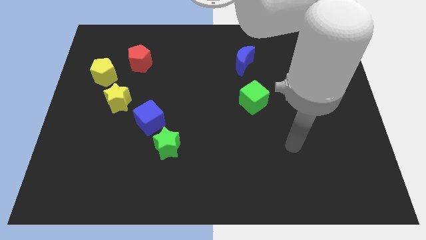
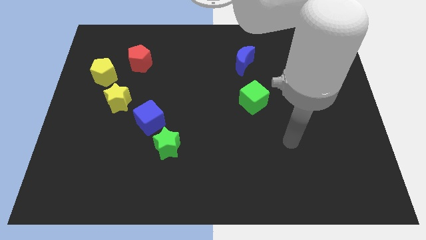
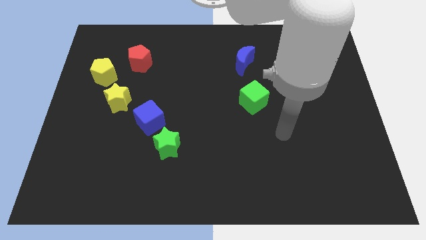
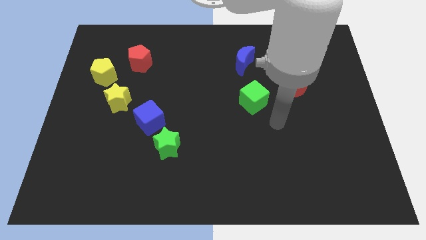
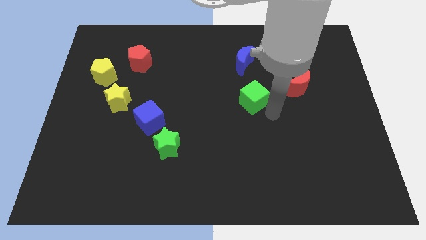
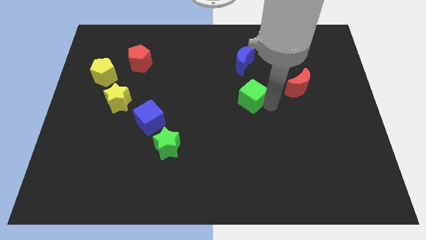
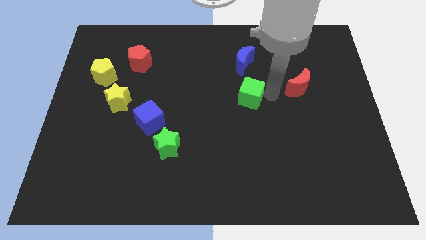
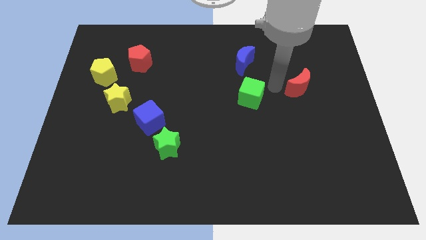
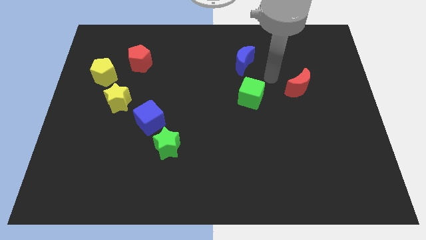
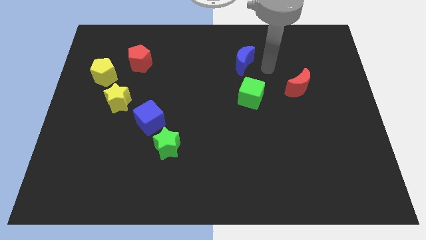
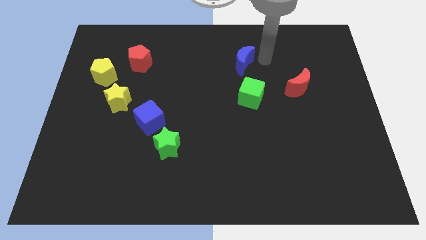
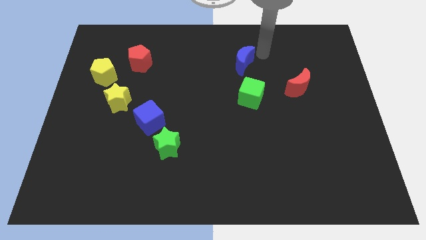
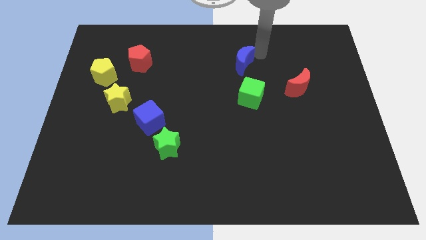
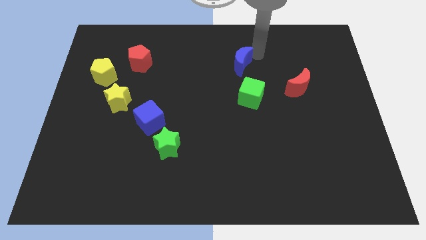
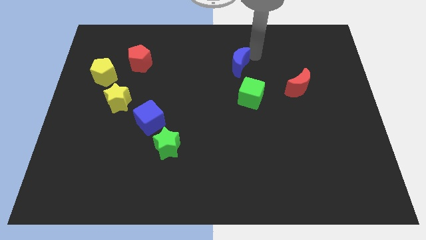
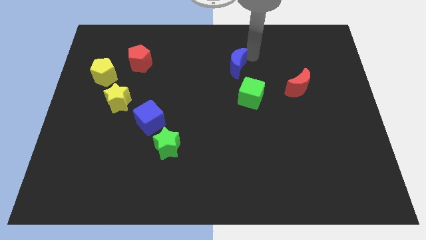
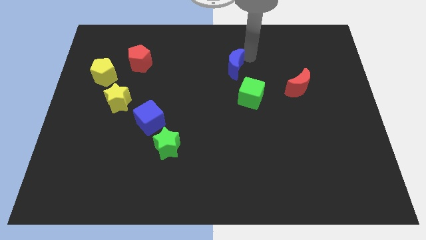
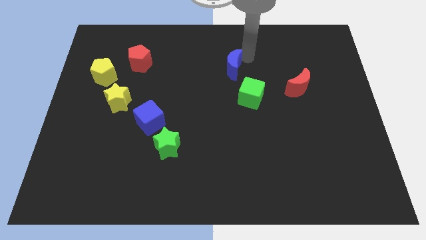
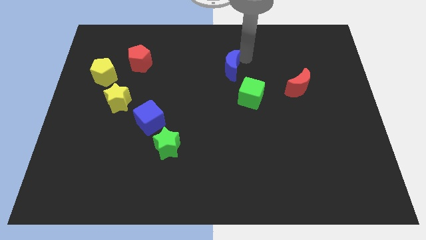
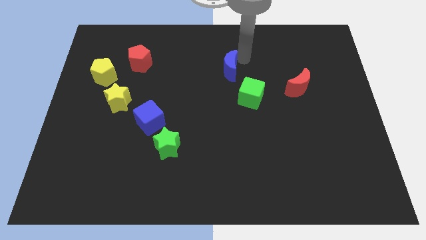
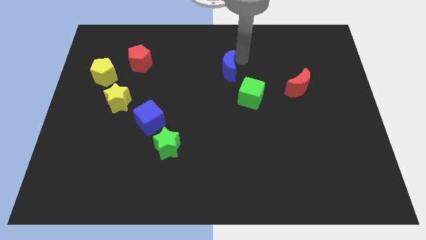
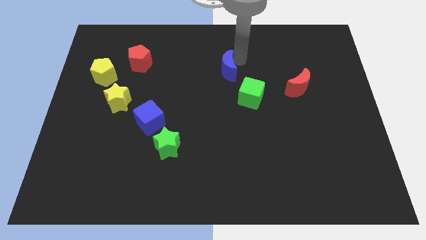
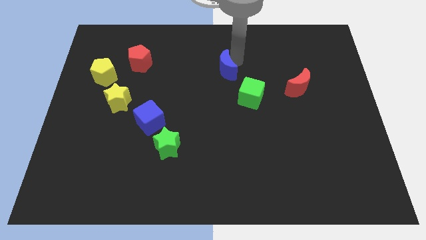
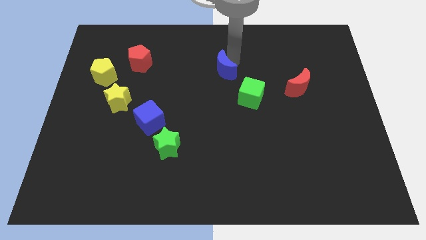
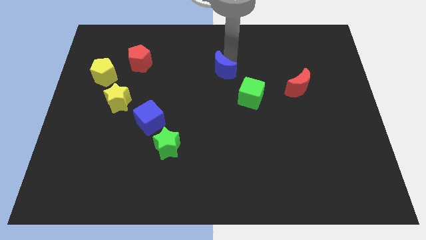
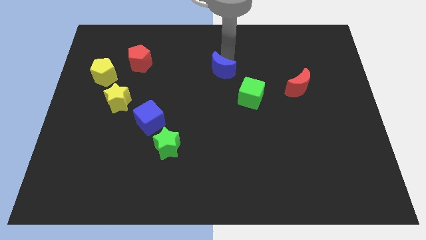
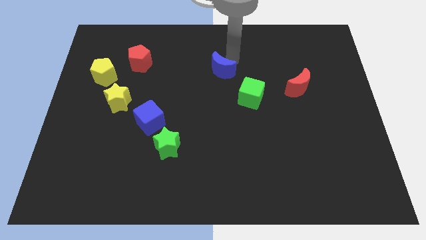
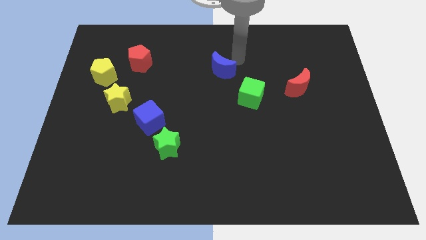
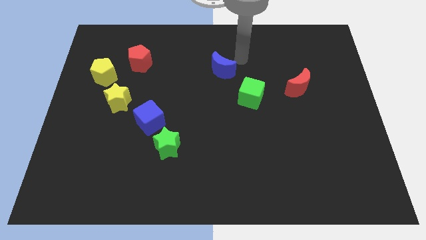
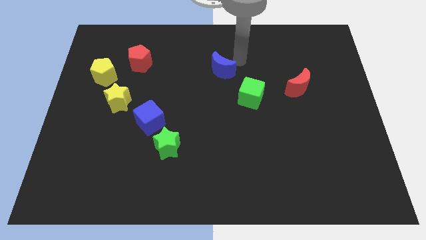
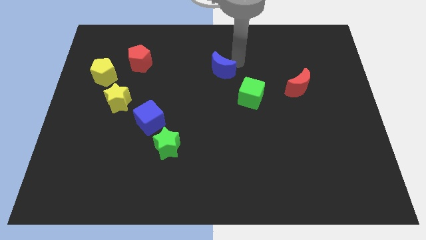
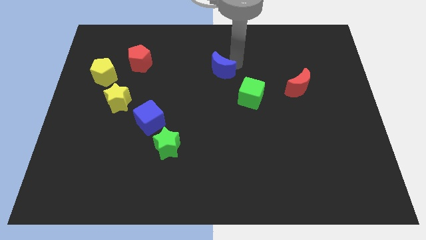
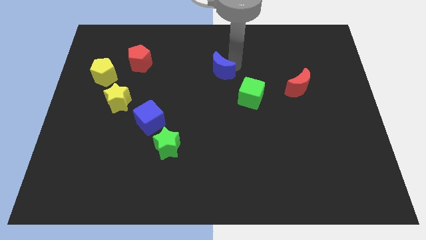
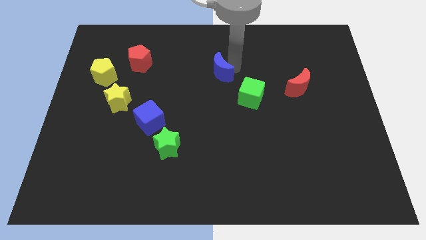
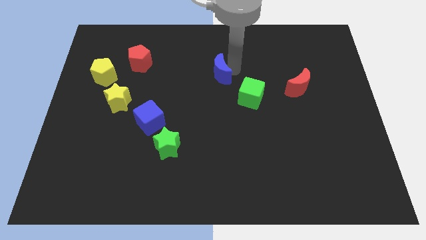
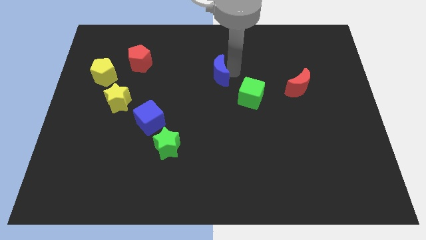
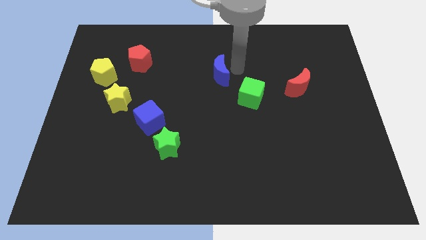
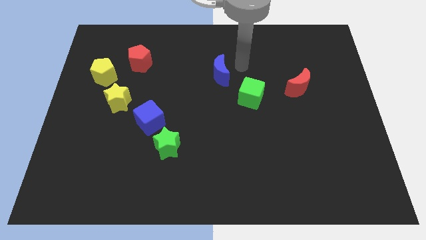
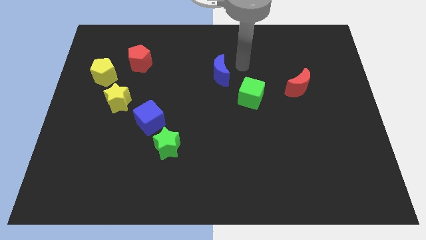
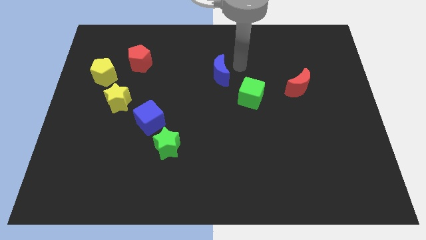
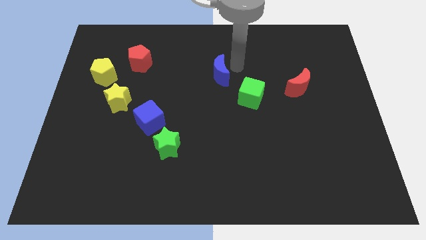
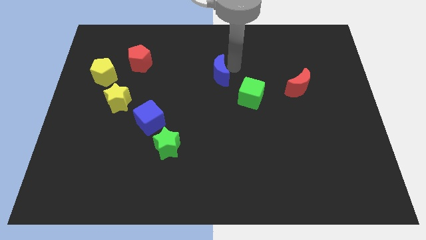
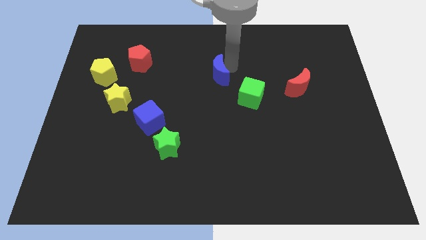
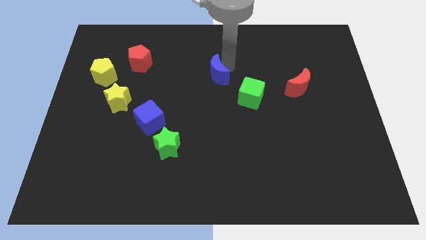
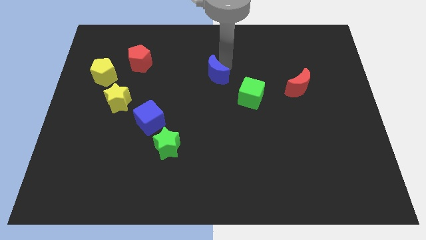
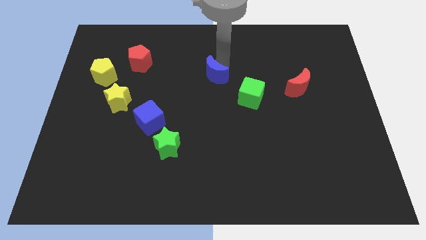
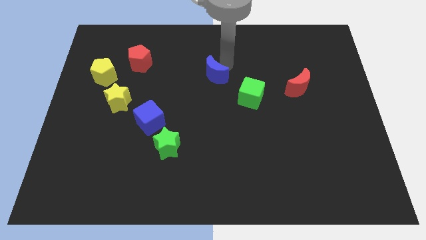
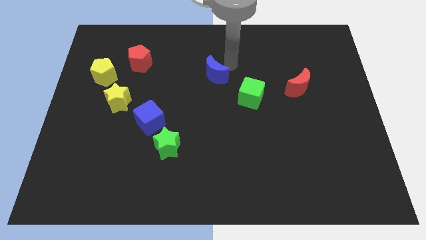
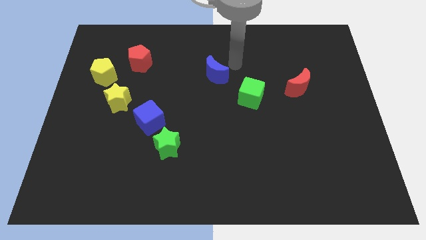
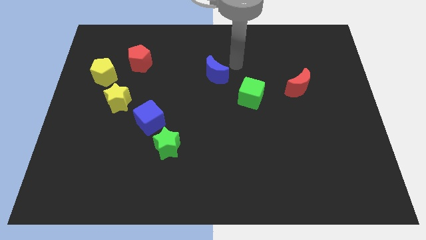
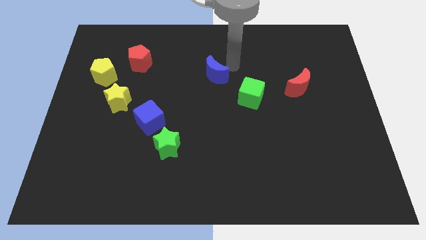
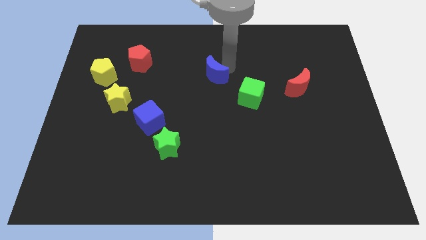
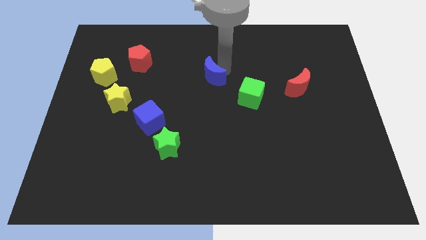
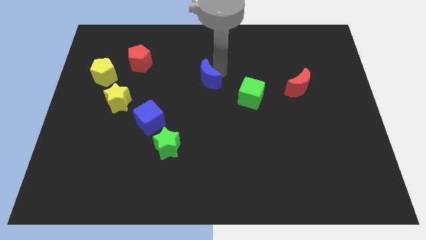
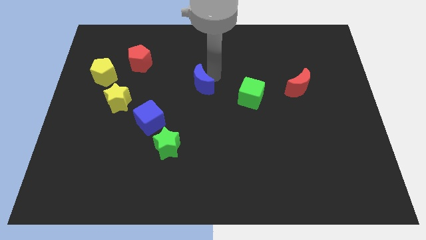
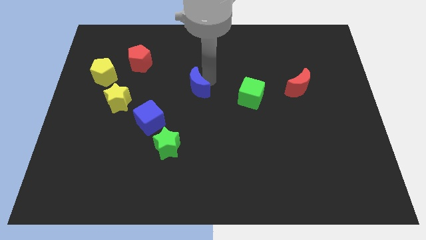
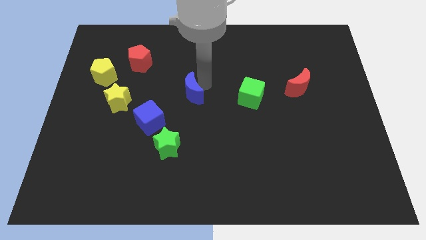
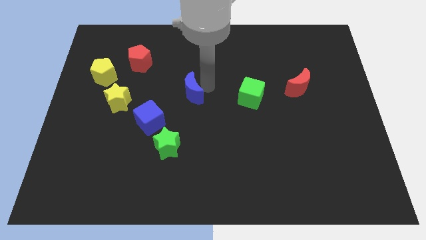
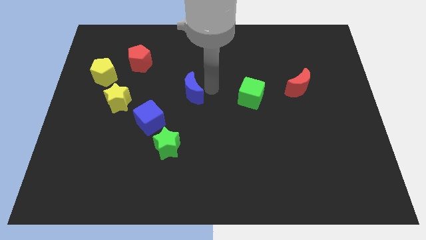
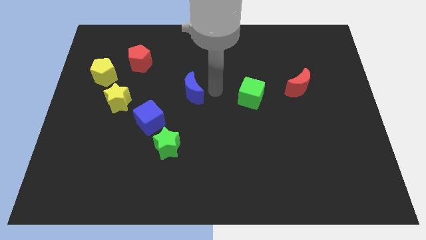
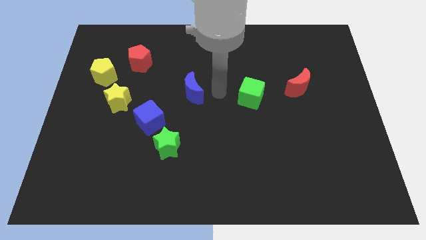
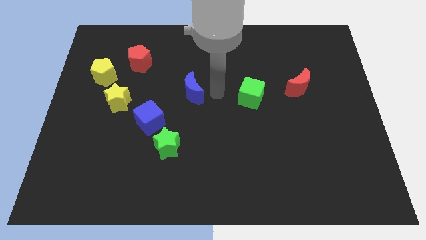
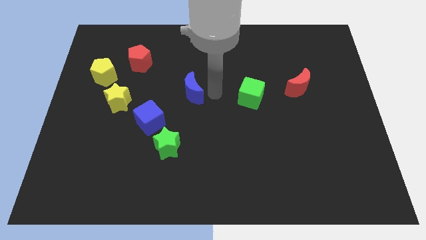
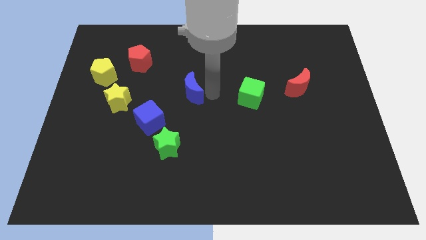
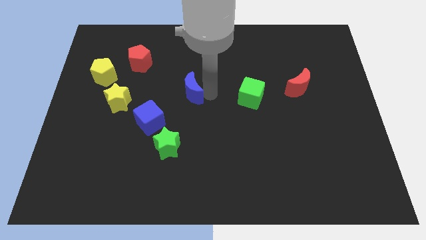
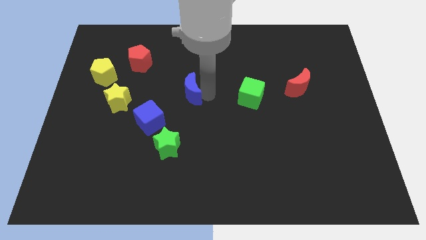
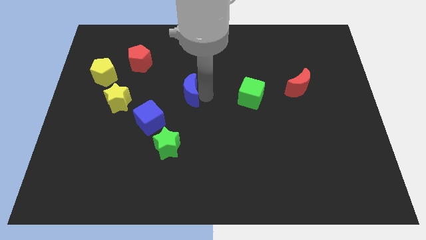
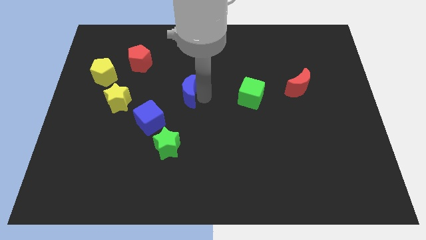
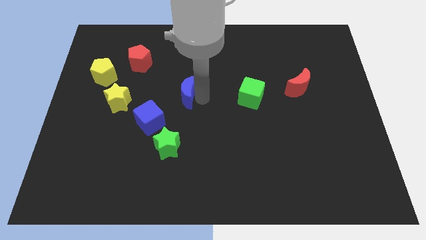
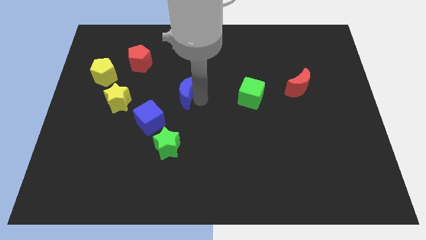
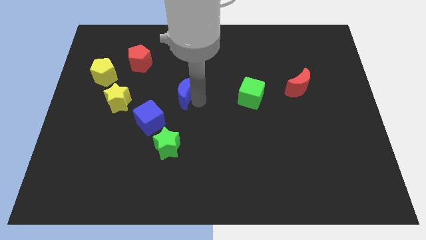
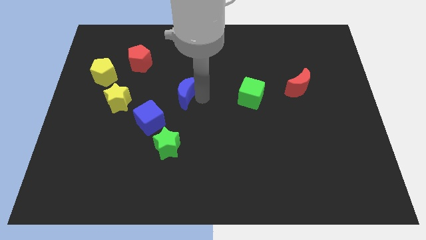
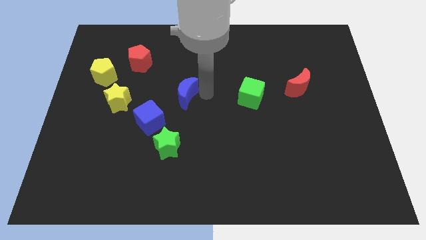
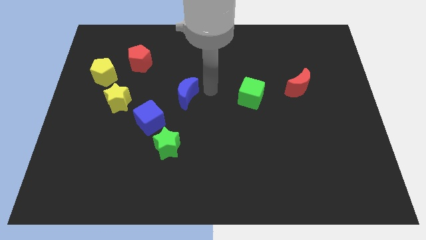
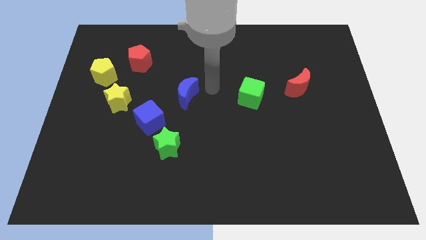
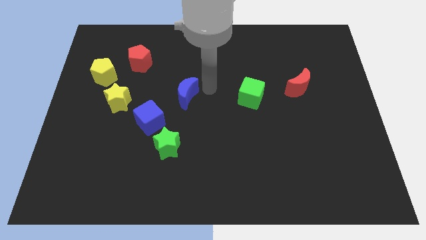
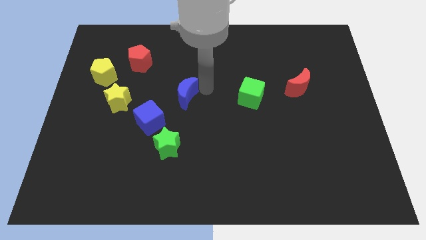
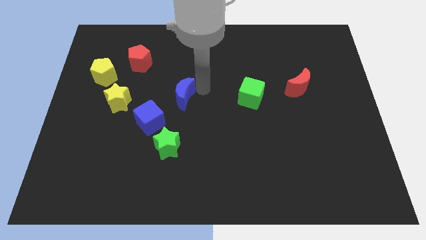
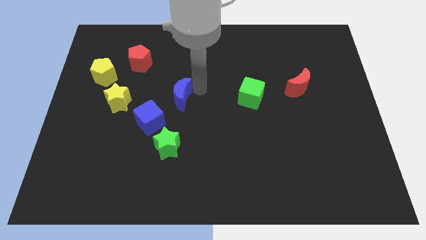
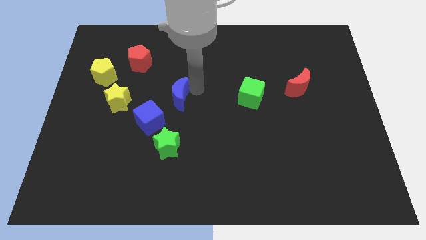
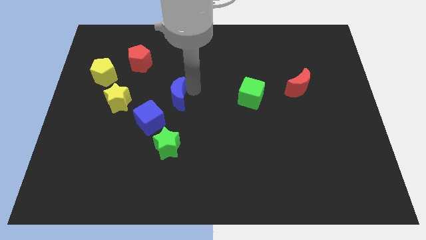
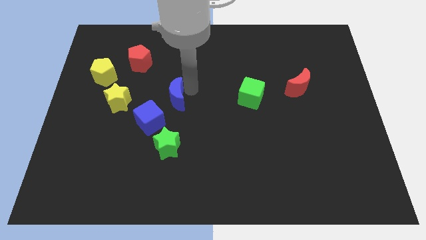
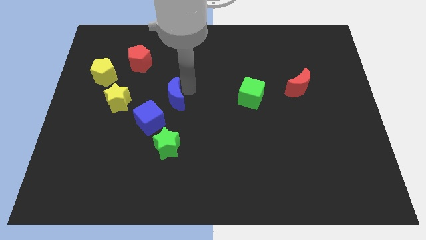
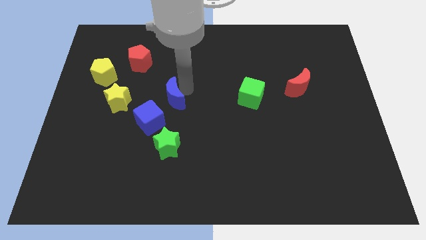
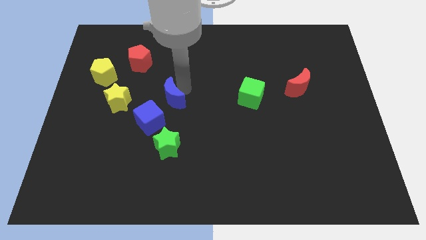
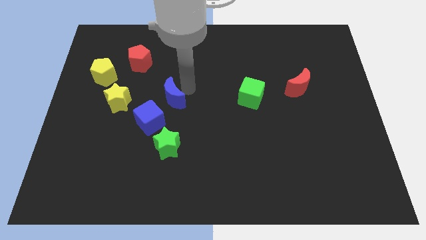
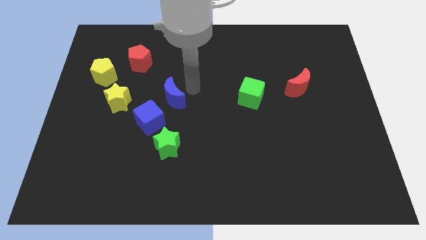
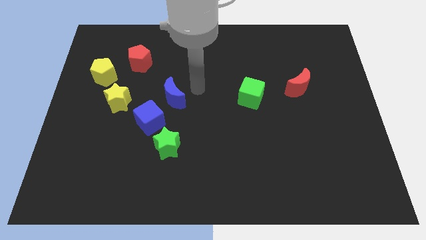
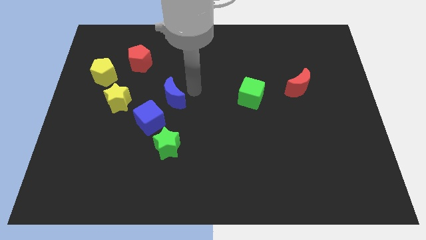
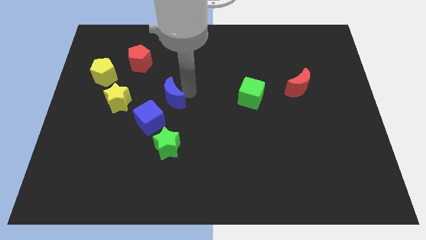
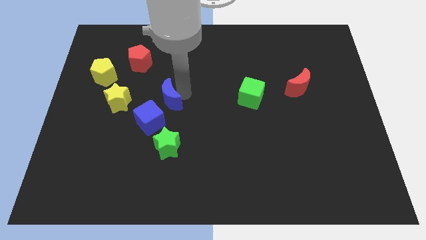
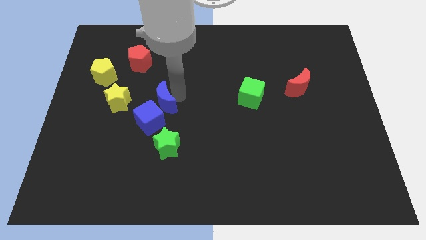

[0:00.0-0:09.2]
slide the blue moon to the blue cube
